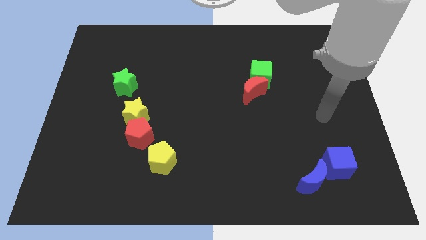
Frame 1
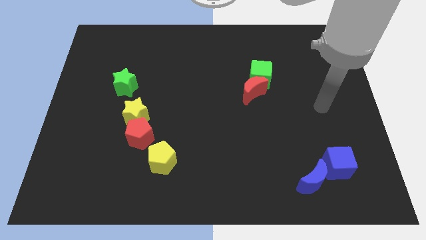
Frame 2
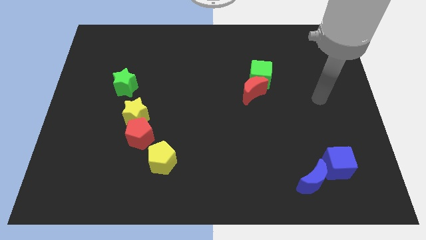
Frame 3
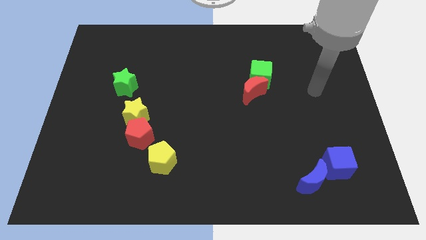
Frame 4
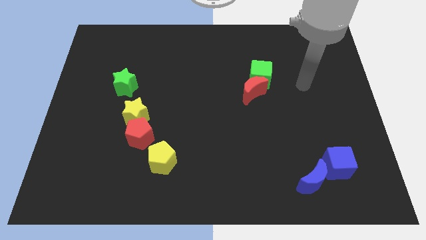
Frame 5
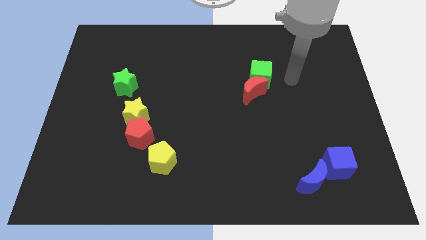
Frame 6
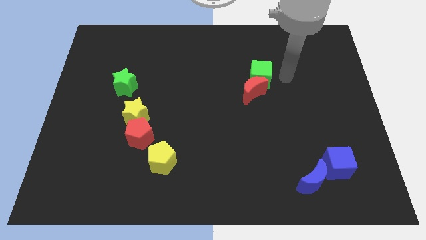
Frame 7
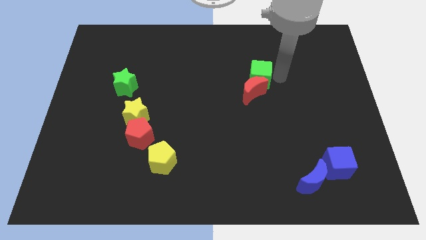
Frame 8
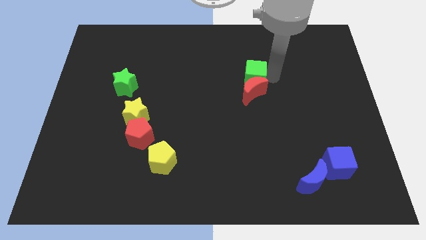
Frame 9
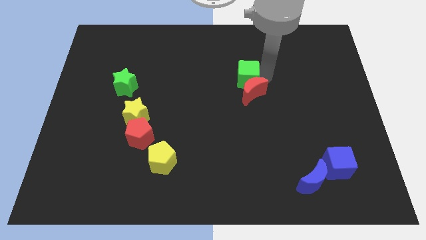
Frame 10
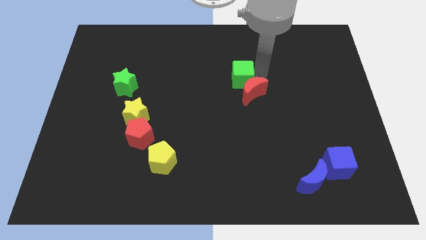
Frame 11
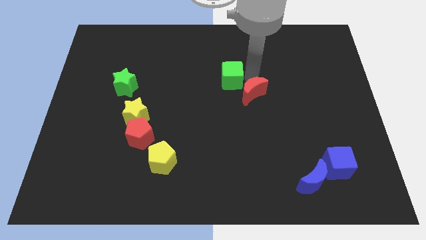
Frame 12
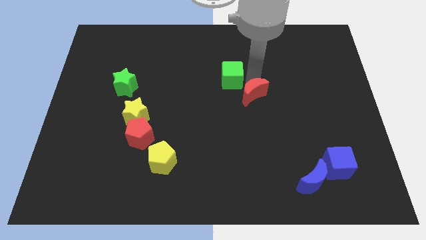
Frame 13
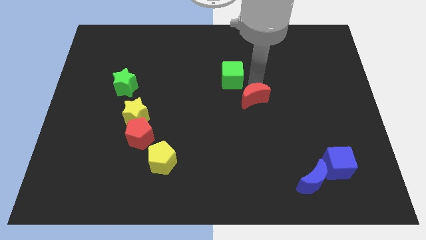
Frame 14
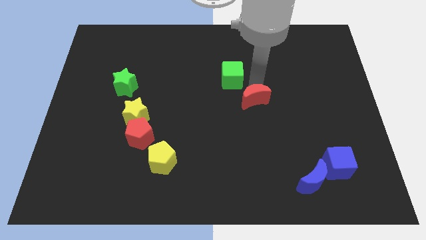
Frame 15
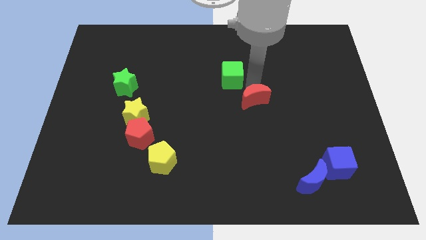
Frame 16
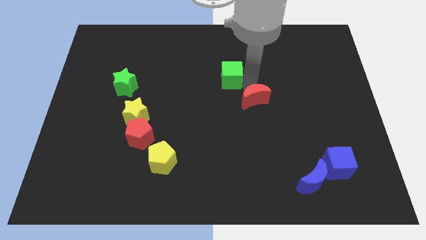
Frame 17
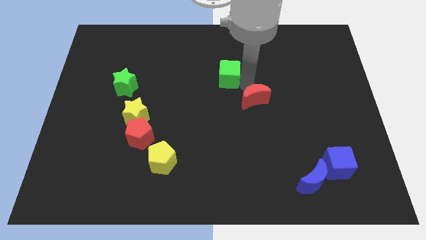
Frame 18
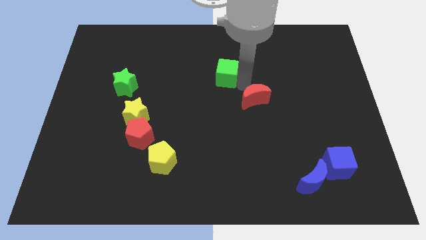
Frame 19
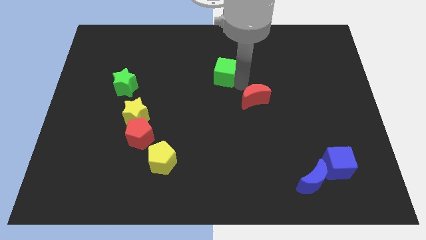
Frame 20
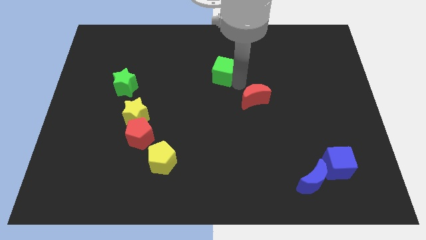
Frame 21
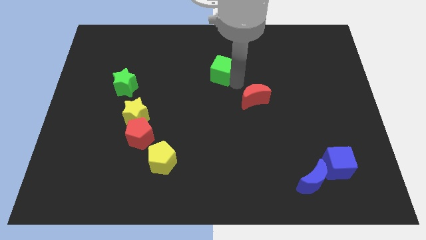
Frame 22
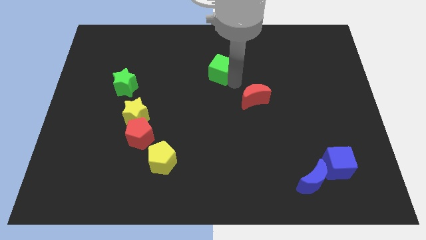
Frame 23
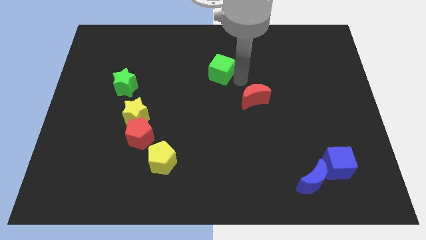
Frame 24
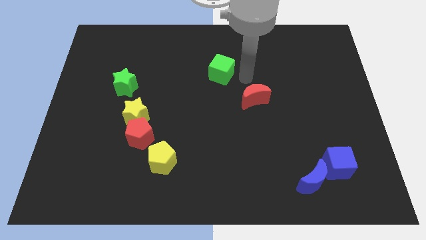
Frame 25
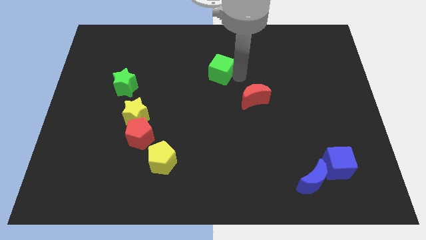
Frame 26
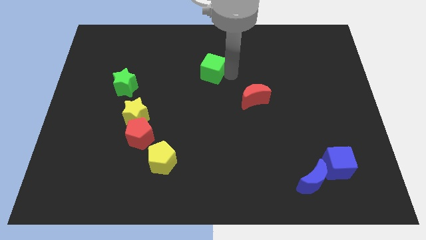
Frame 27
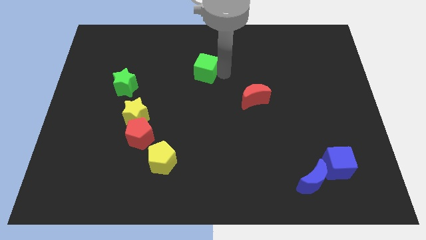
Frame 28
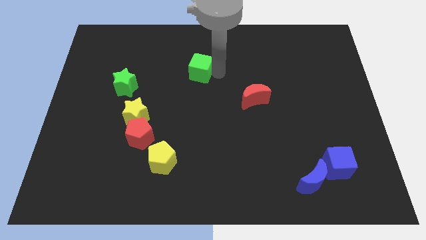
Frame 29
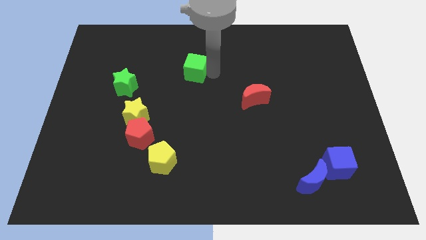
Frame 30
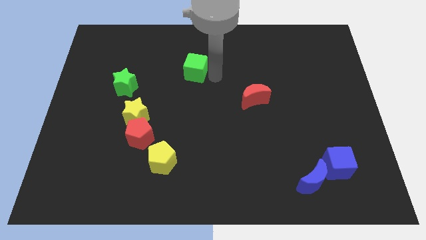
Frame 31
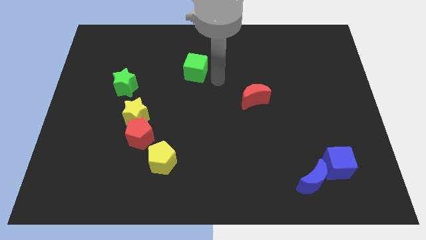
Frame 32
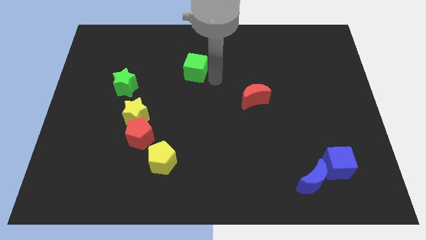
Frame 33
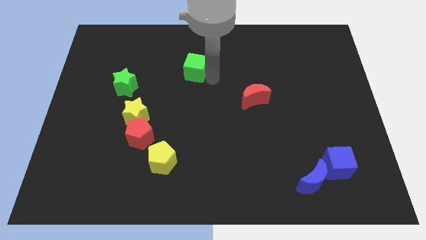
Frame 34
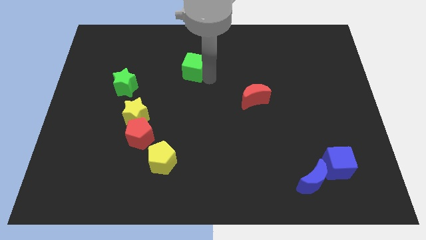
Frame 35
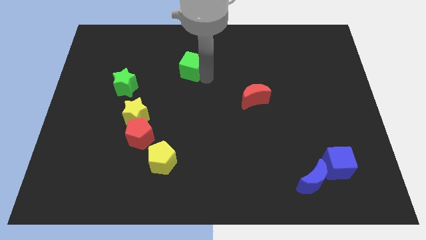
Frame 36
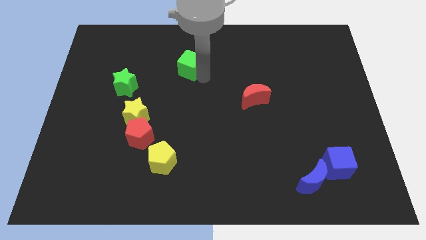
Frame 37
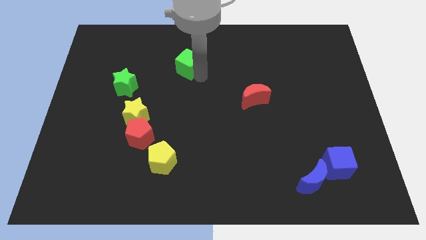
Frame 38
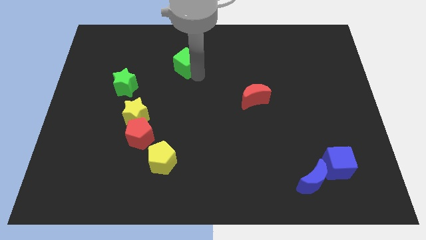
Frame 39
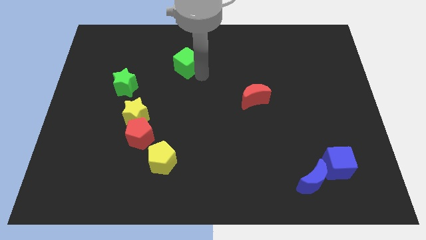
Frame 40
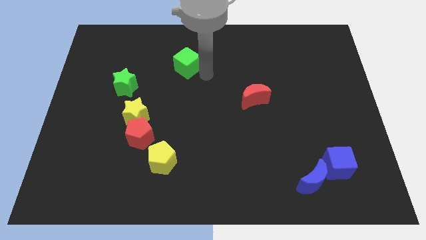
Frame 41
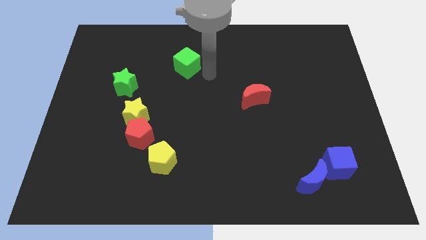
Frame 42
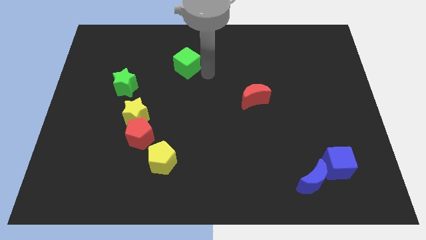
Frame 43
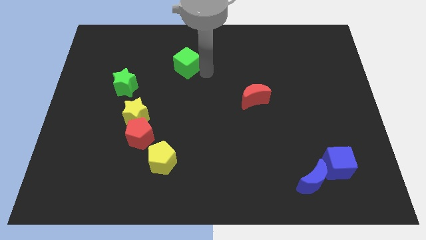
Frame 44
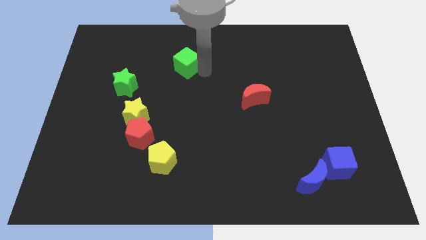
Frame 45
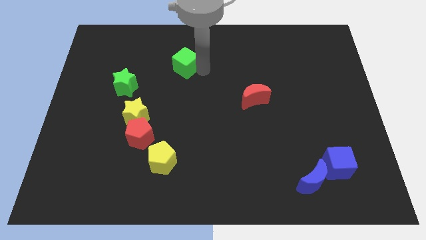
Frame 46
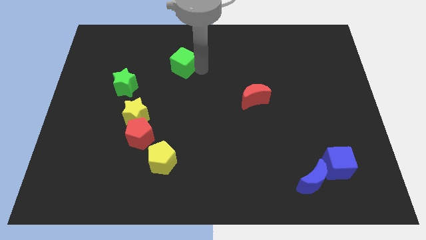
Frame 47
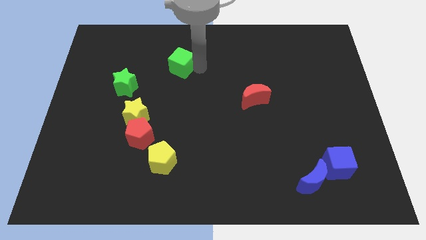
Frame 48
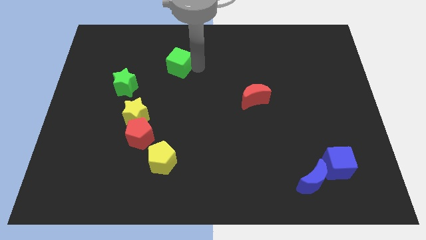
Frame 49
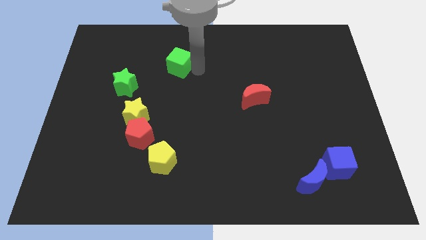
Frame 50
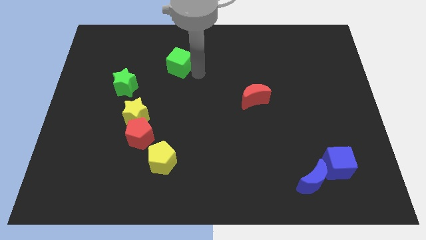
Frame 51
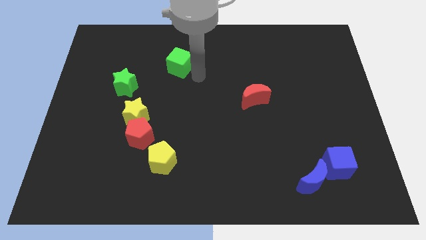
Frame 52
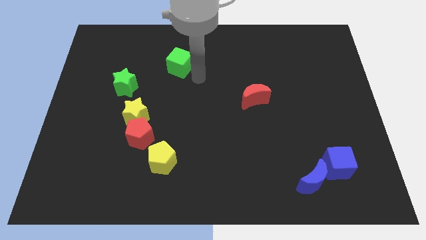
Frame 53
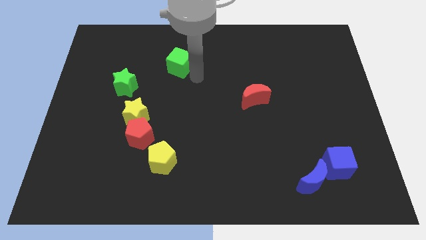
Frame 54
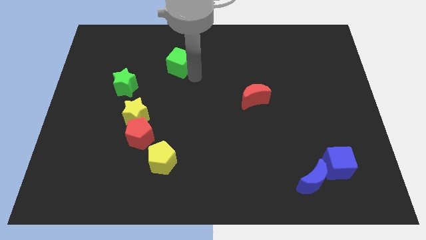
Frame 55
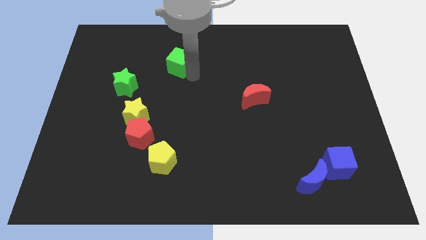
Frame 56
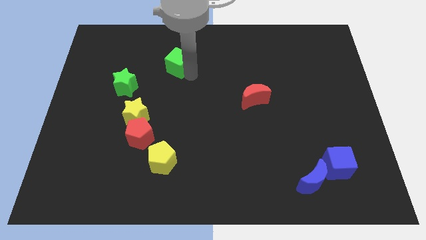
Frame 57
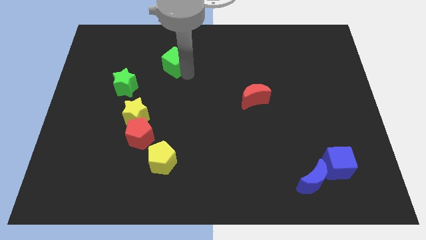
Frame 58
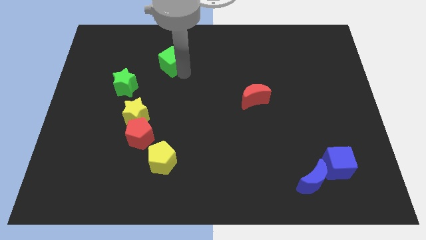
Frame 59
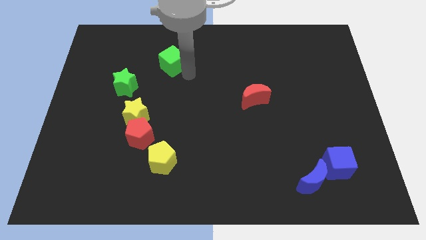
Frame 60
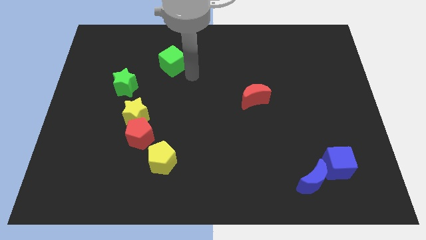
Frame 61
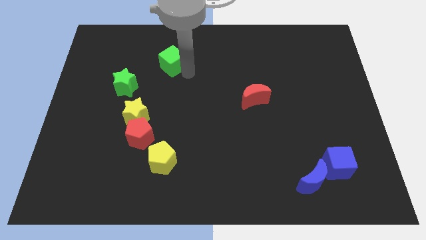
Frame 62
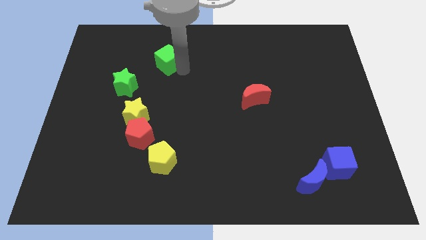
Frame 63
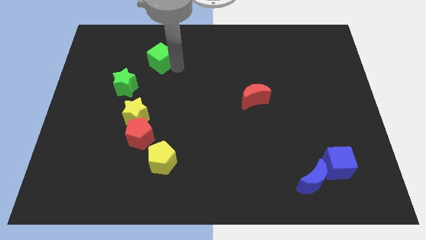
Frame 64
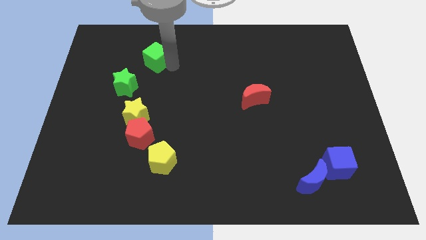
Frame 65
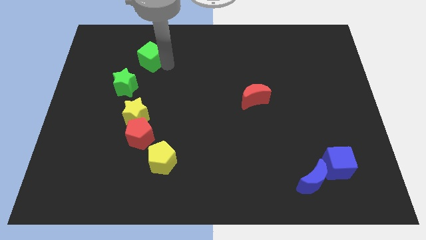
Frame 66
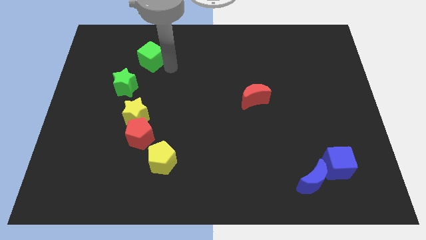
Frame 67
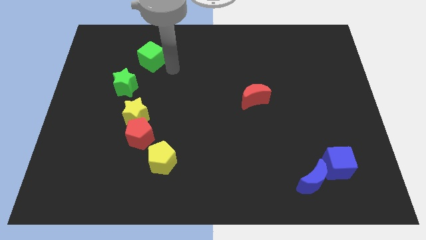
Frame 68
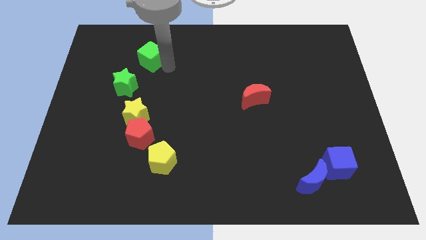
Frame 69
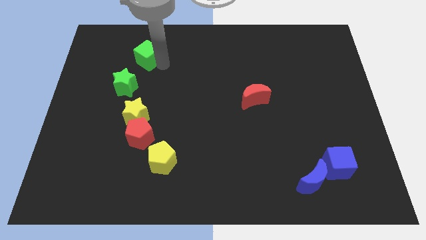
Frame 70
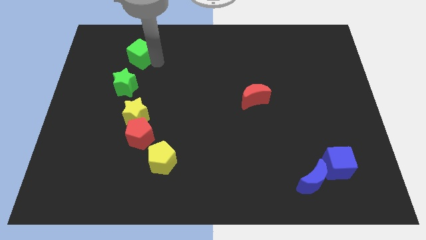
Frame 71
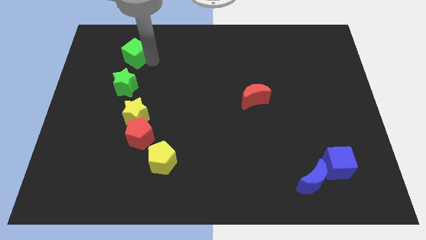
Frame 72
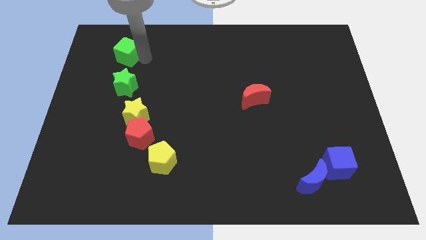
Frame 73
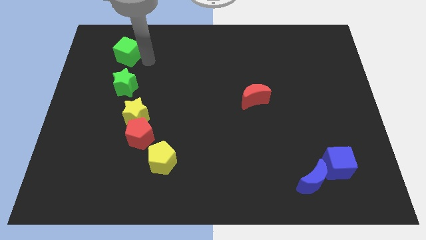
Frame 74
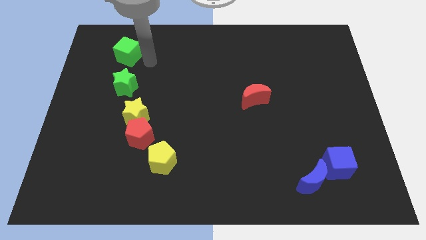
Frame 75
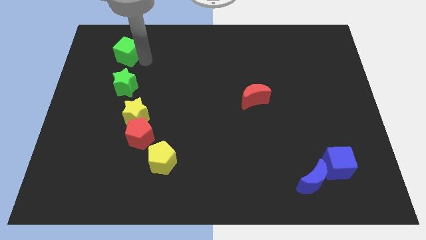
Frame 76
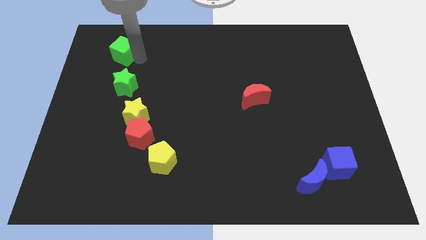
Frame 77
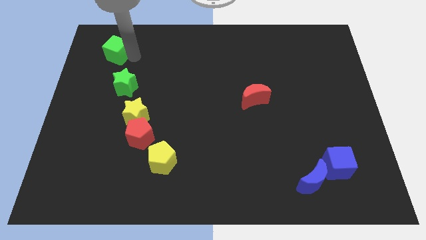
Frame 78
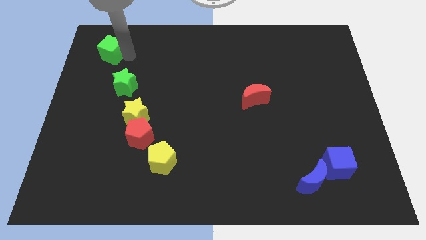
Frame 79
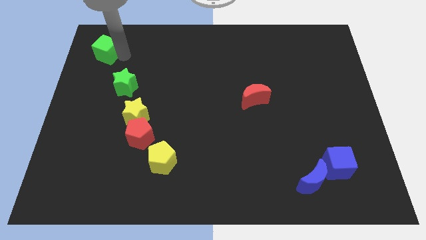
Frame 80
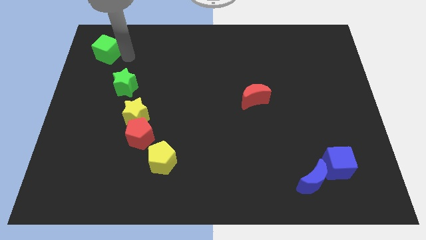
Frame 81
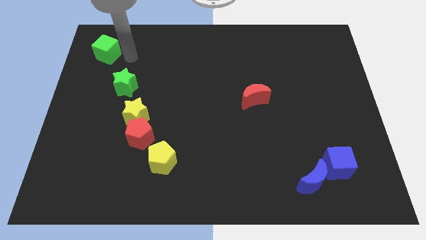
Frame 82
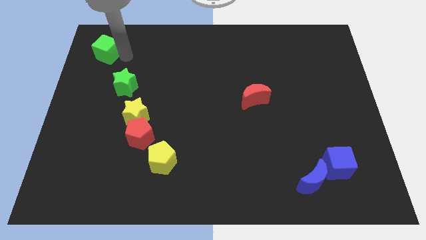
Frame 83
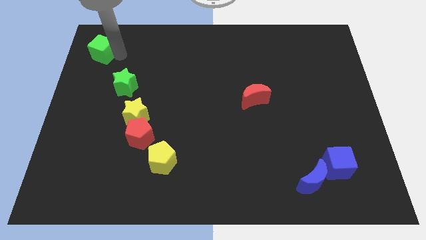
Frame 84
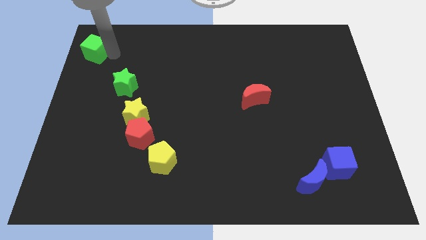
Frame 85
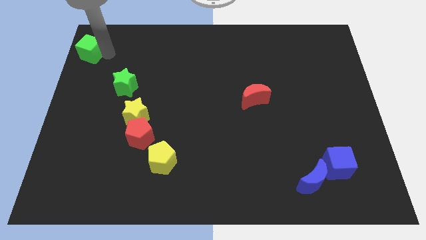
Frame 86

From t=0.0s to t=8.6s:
push the green cube to the top left corner
